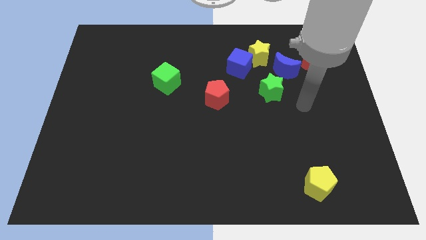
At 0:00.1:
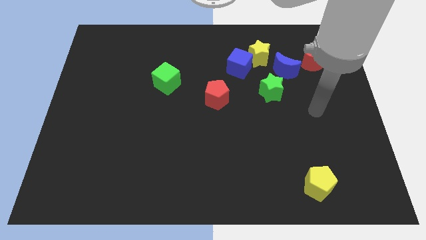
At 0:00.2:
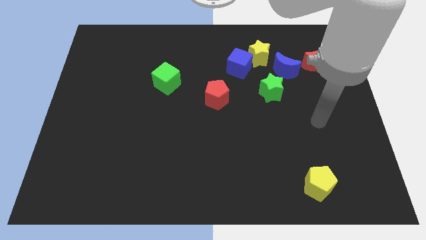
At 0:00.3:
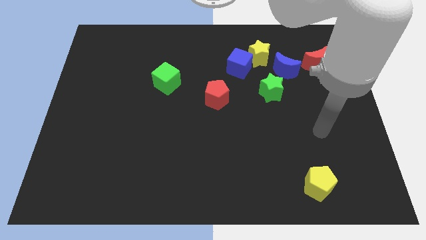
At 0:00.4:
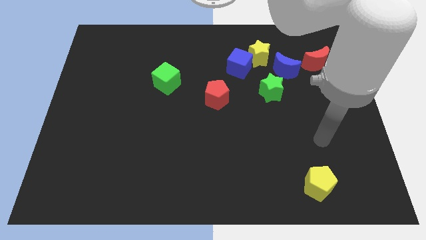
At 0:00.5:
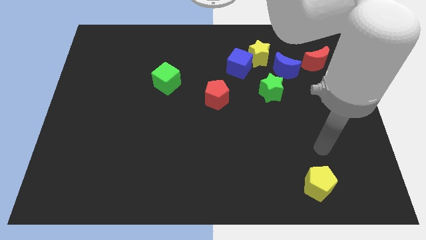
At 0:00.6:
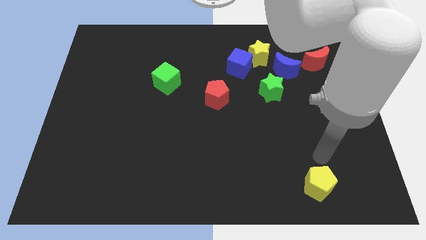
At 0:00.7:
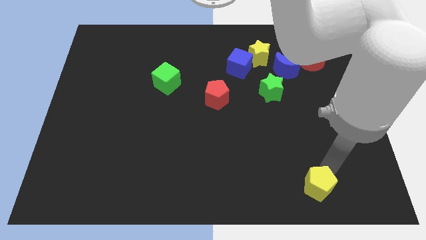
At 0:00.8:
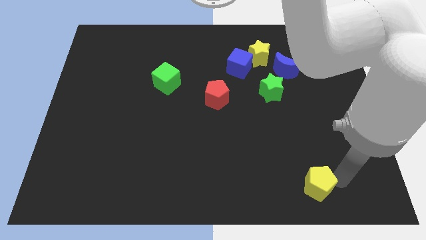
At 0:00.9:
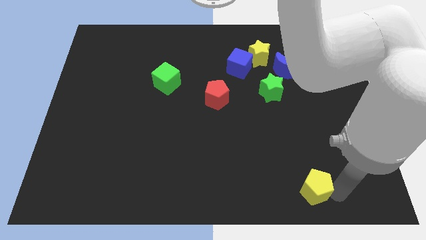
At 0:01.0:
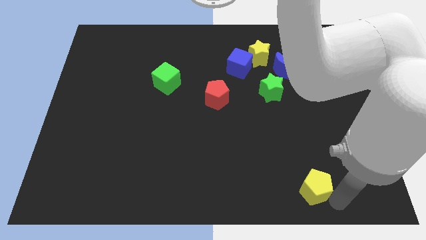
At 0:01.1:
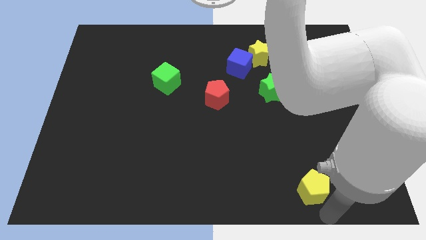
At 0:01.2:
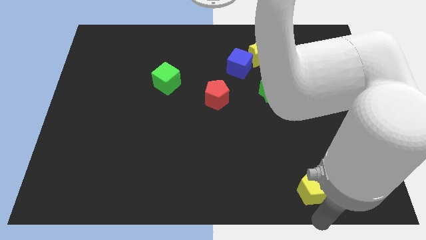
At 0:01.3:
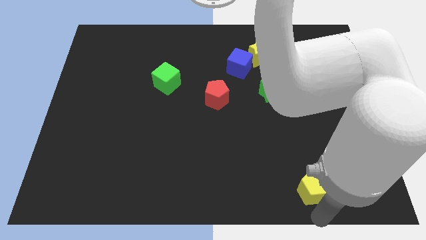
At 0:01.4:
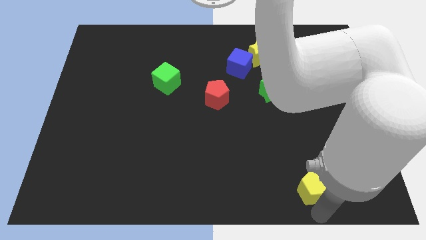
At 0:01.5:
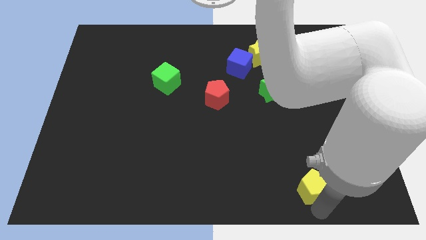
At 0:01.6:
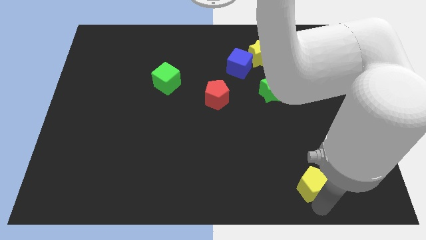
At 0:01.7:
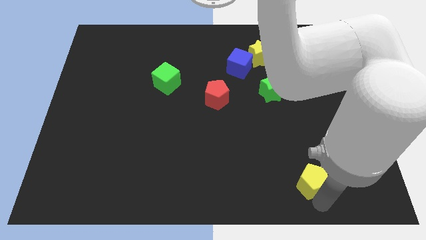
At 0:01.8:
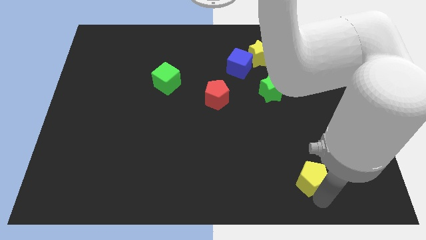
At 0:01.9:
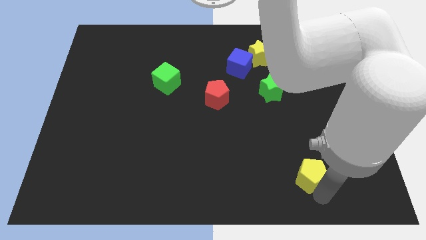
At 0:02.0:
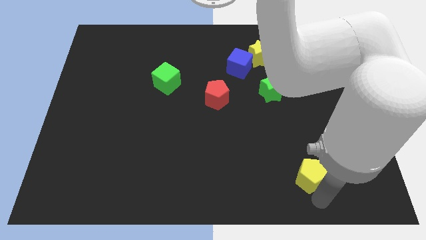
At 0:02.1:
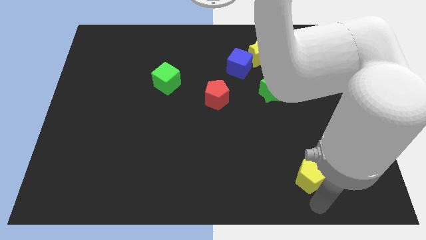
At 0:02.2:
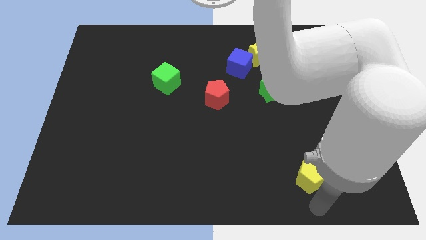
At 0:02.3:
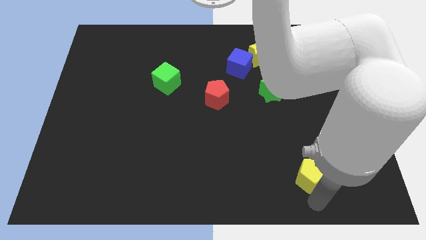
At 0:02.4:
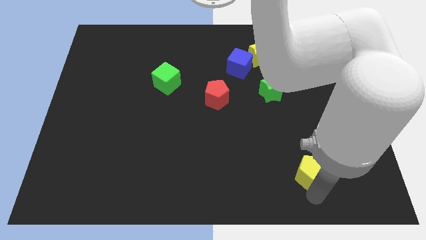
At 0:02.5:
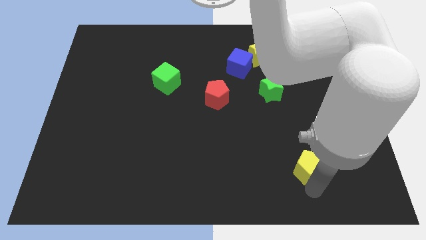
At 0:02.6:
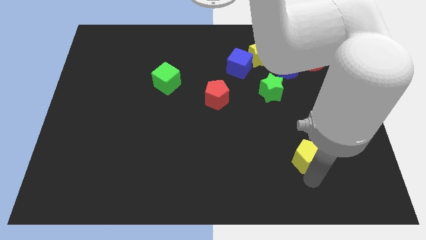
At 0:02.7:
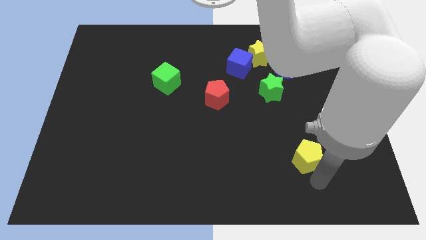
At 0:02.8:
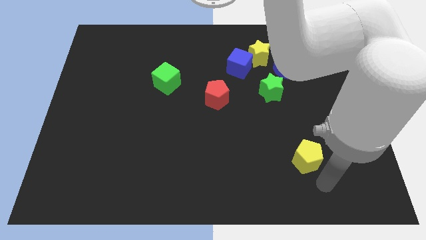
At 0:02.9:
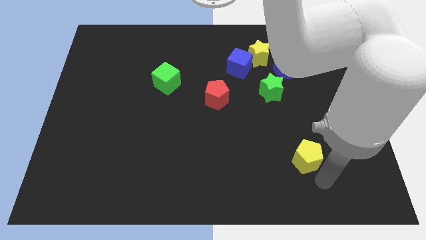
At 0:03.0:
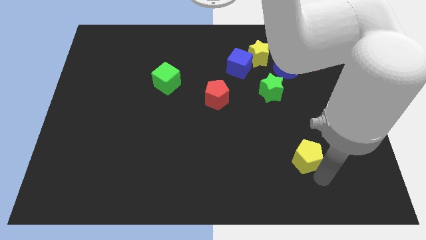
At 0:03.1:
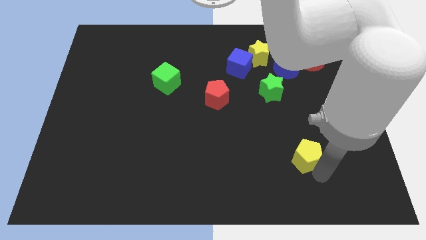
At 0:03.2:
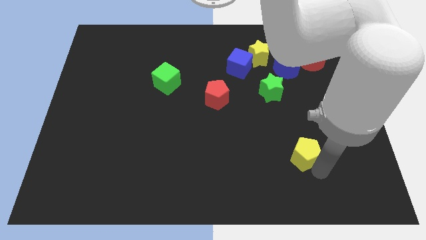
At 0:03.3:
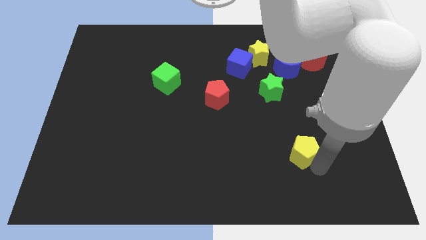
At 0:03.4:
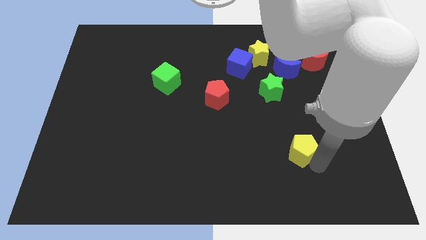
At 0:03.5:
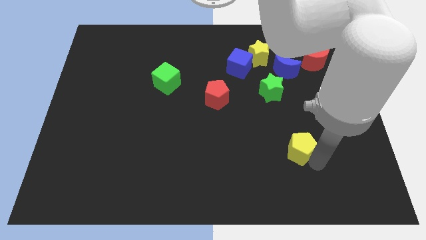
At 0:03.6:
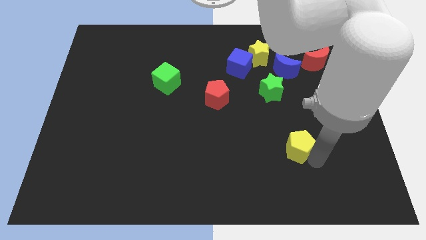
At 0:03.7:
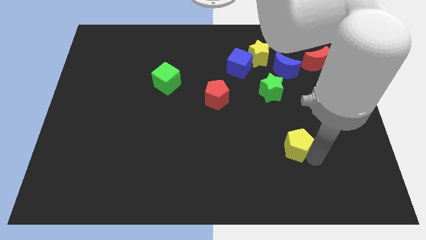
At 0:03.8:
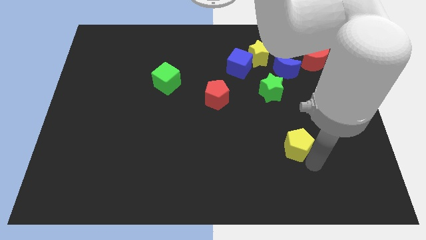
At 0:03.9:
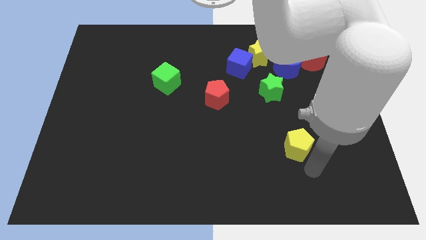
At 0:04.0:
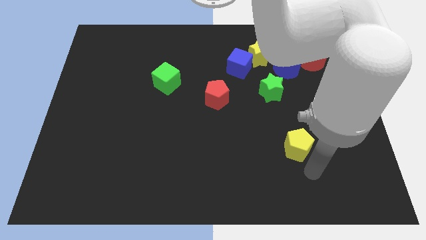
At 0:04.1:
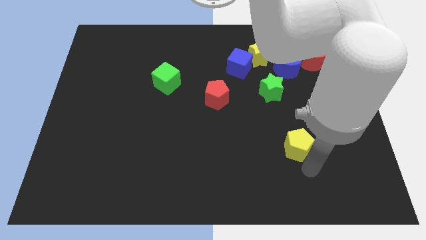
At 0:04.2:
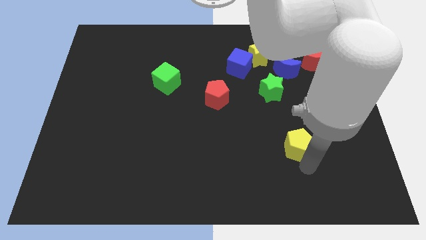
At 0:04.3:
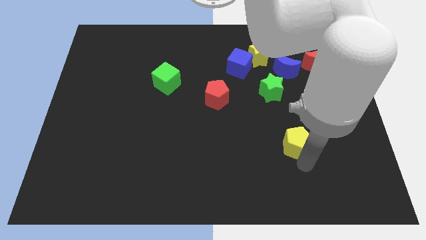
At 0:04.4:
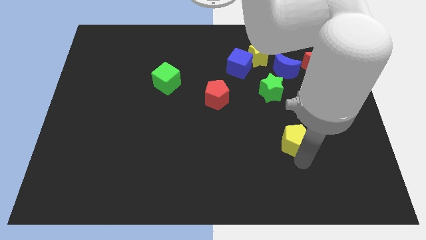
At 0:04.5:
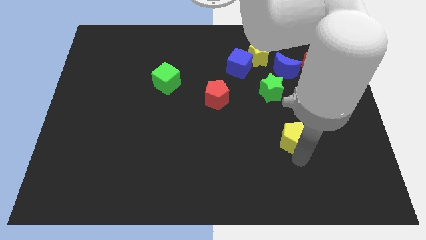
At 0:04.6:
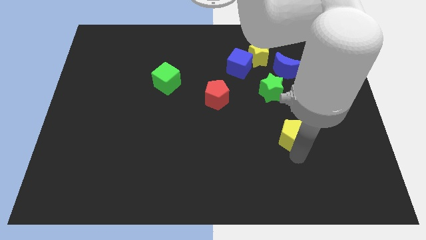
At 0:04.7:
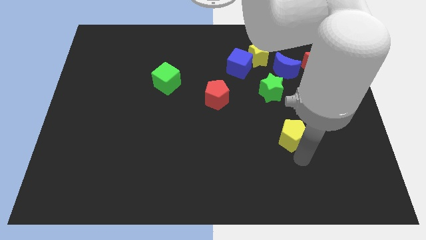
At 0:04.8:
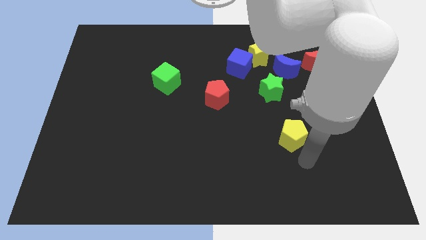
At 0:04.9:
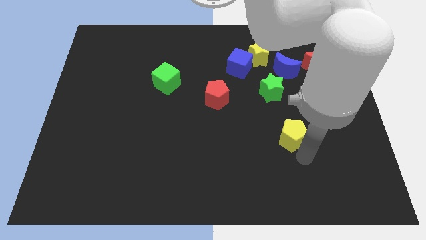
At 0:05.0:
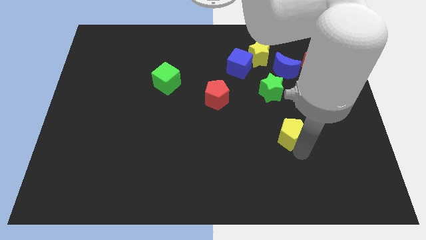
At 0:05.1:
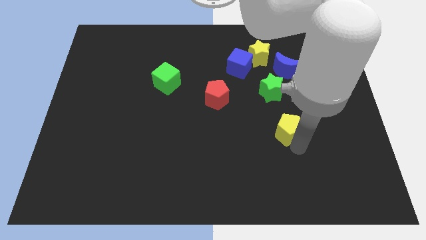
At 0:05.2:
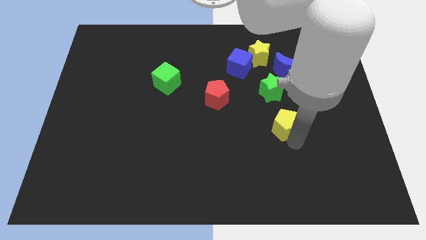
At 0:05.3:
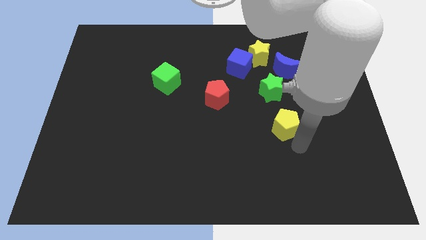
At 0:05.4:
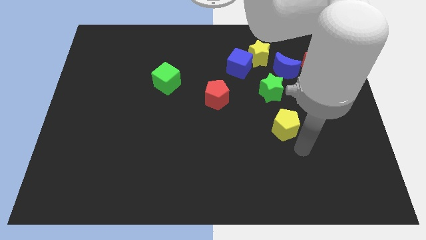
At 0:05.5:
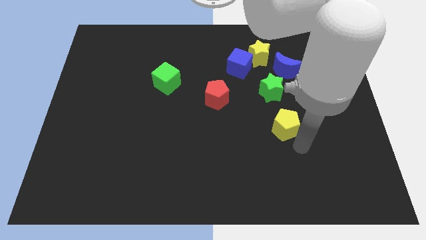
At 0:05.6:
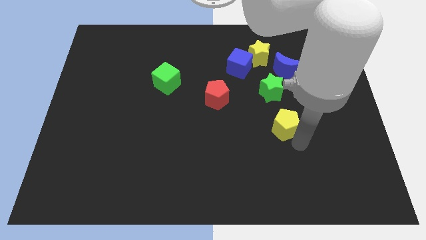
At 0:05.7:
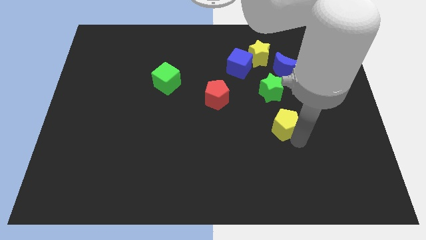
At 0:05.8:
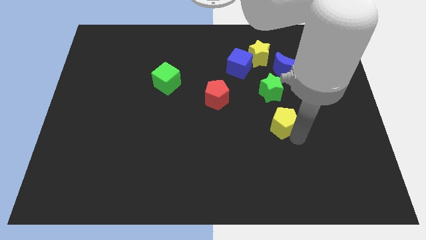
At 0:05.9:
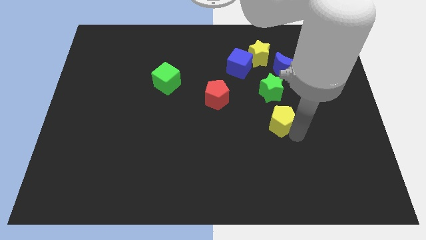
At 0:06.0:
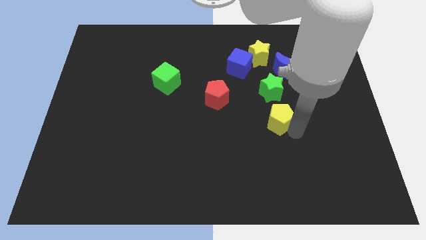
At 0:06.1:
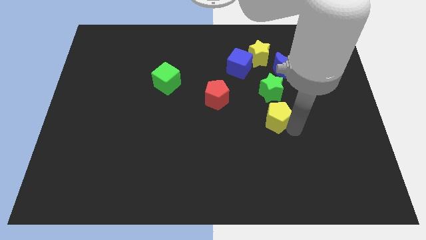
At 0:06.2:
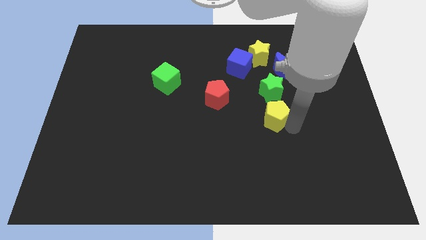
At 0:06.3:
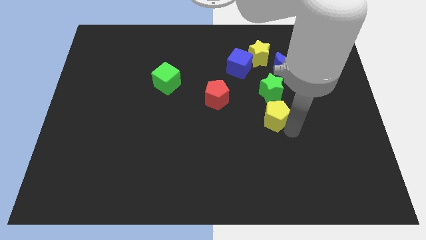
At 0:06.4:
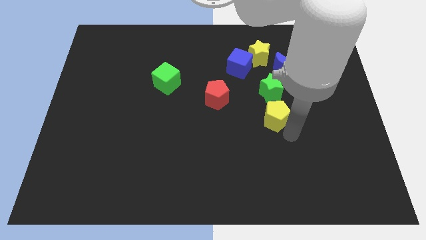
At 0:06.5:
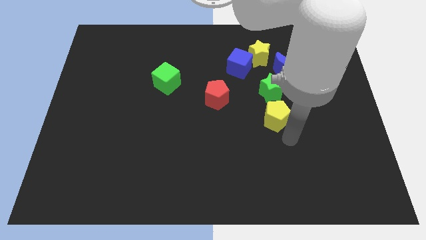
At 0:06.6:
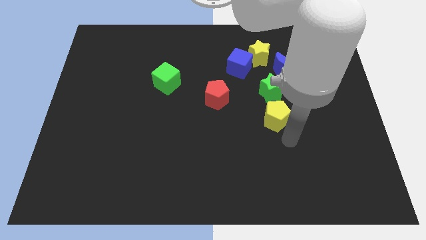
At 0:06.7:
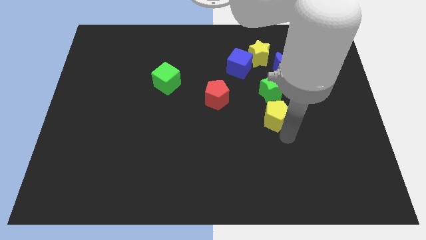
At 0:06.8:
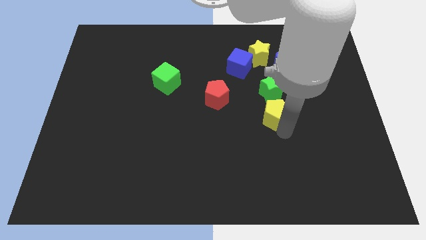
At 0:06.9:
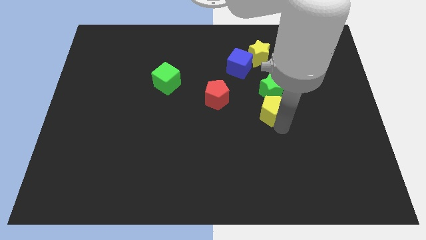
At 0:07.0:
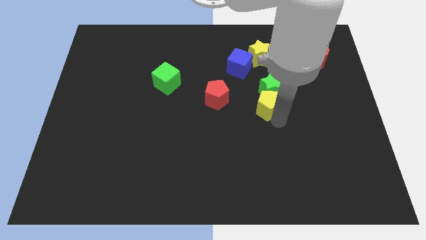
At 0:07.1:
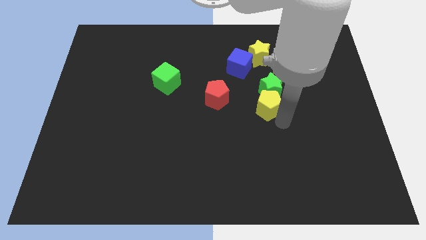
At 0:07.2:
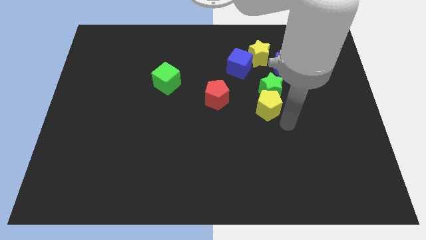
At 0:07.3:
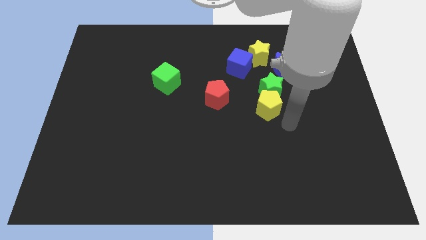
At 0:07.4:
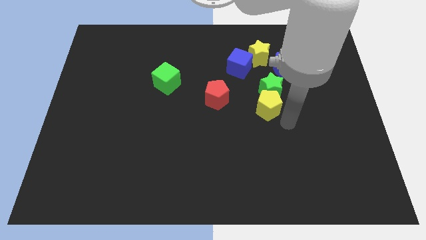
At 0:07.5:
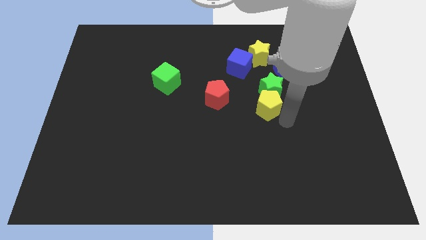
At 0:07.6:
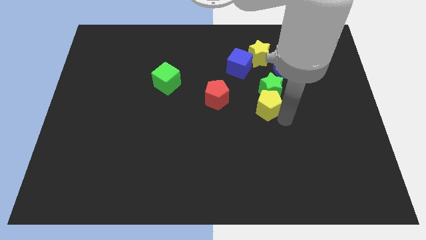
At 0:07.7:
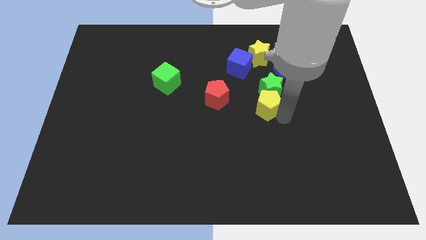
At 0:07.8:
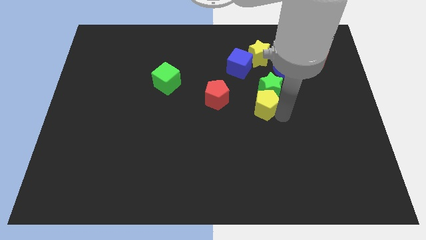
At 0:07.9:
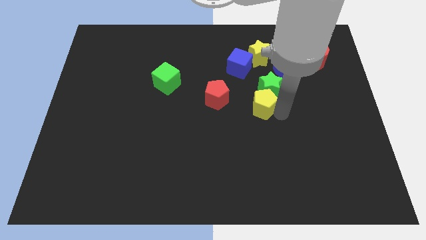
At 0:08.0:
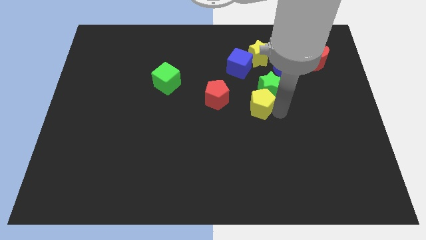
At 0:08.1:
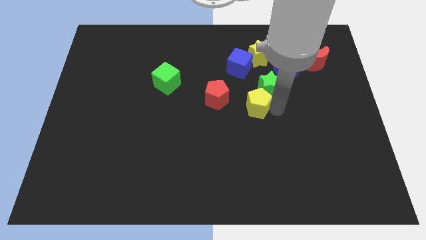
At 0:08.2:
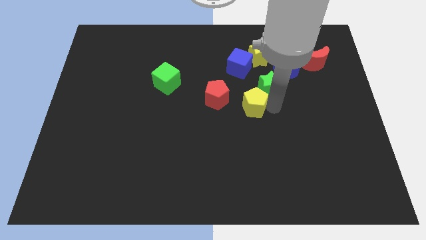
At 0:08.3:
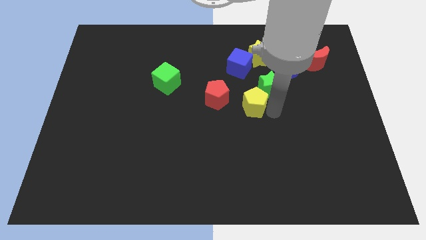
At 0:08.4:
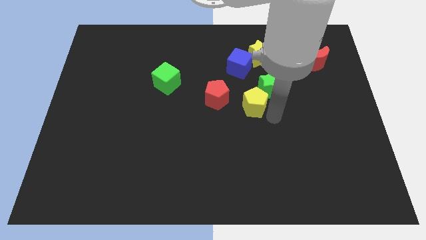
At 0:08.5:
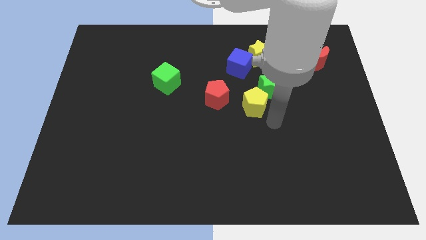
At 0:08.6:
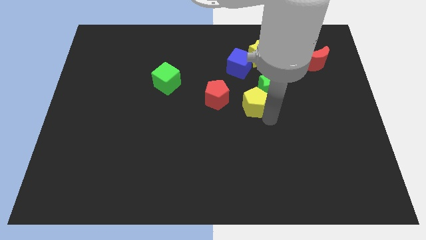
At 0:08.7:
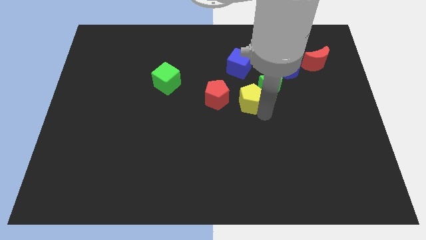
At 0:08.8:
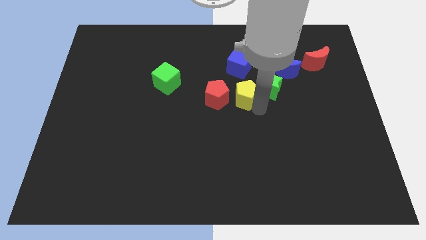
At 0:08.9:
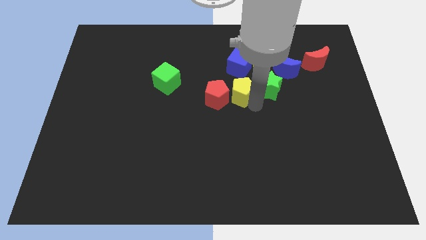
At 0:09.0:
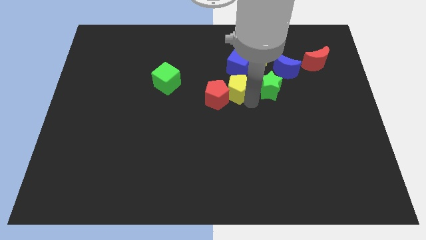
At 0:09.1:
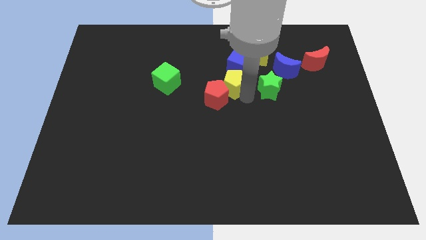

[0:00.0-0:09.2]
move the yellow pentagon to the bottom left side of the blue cube
